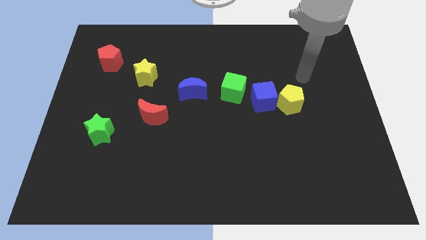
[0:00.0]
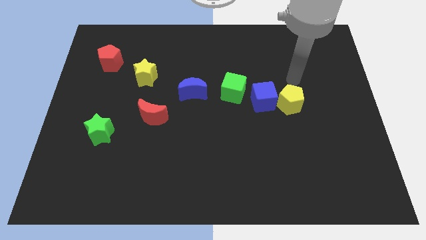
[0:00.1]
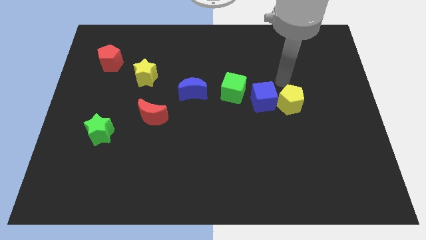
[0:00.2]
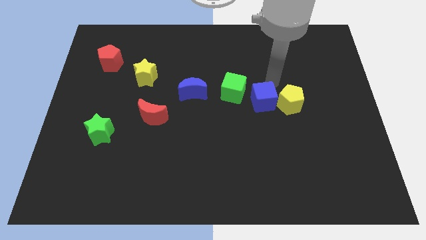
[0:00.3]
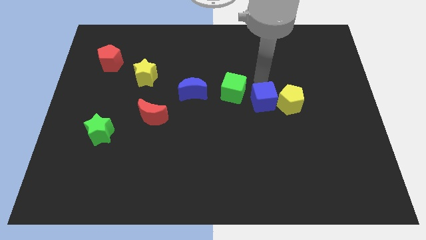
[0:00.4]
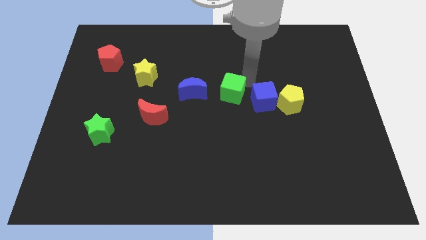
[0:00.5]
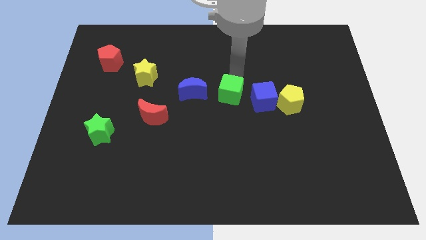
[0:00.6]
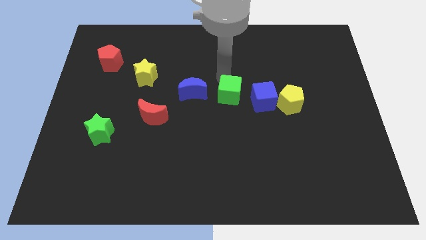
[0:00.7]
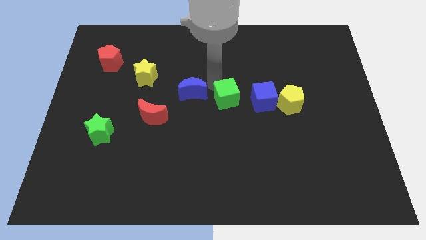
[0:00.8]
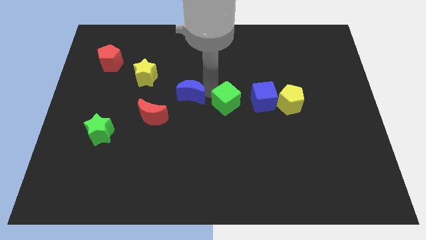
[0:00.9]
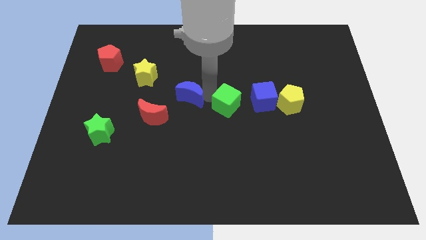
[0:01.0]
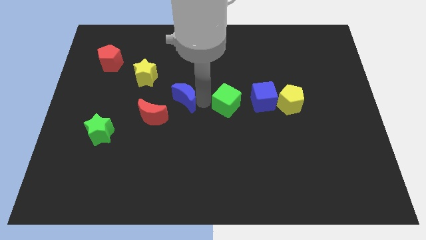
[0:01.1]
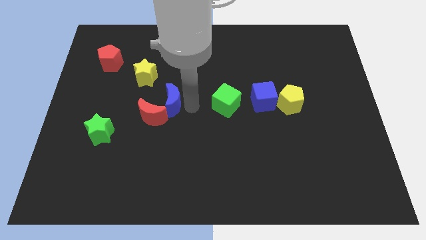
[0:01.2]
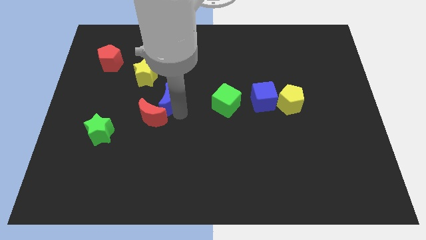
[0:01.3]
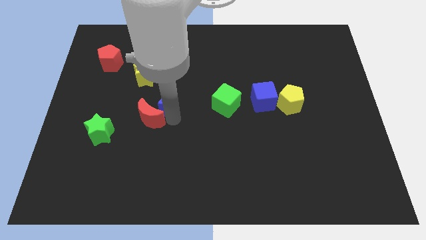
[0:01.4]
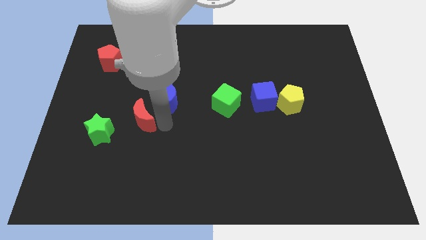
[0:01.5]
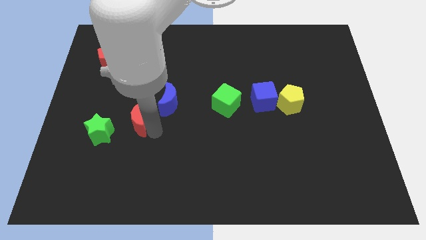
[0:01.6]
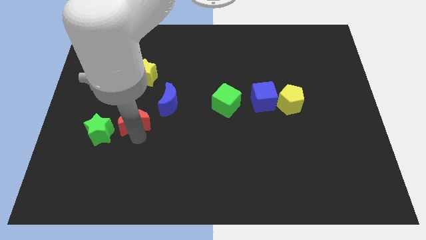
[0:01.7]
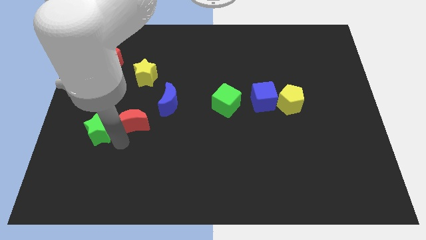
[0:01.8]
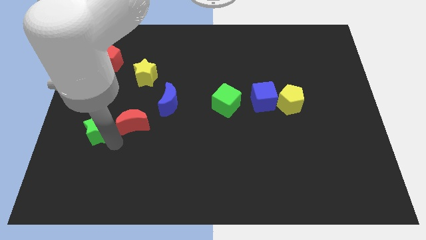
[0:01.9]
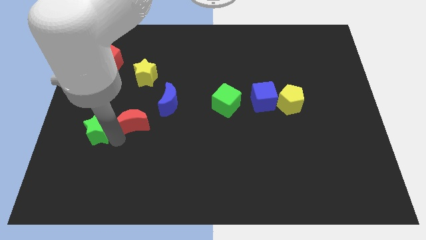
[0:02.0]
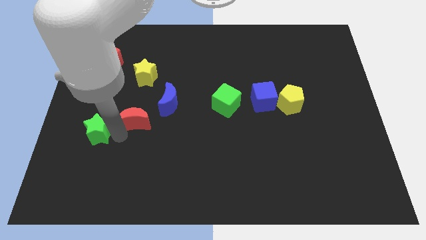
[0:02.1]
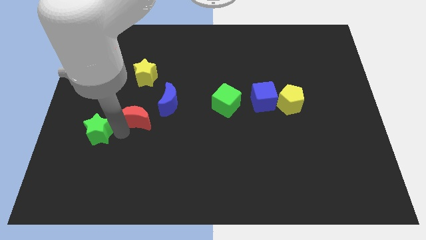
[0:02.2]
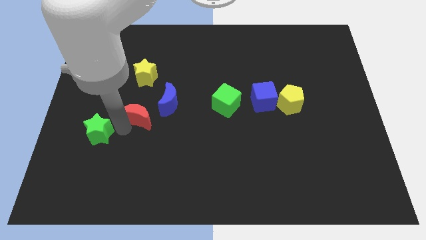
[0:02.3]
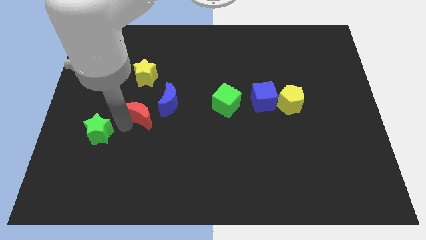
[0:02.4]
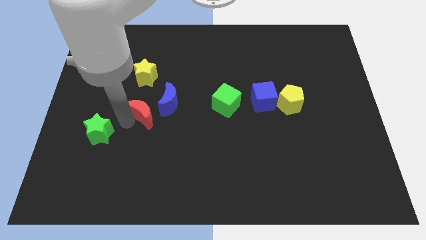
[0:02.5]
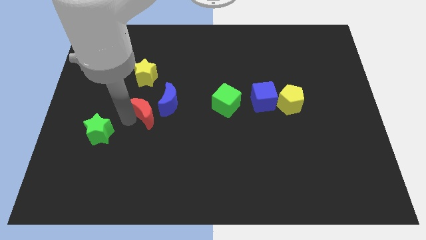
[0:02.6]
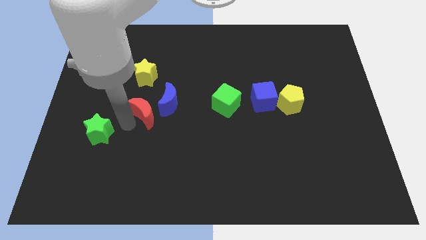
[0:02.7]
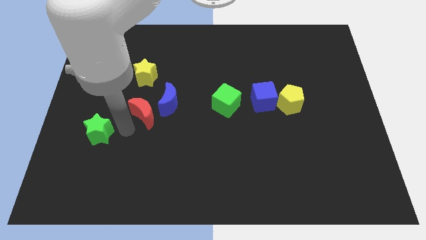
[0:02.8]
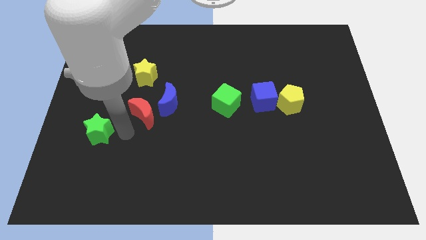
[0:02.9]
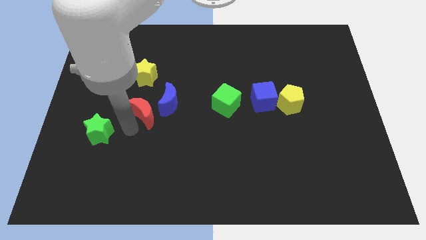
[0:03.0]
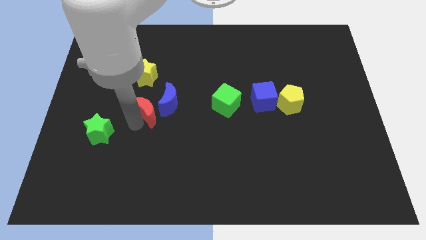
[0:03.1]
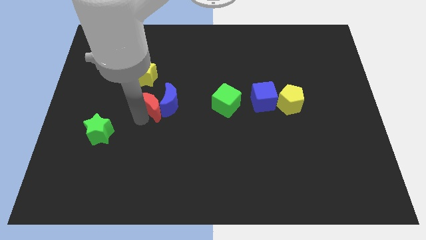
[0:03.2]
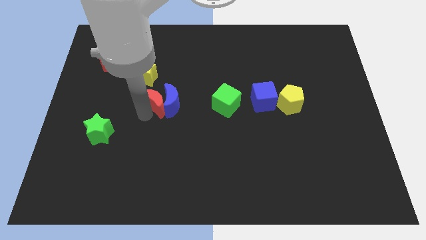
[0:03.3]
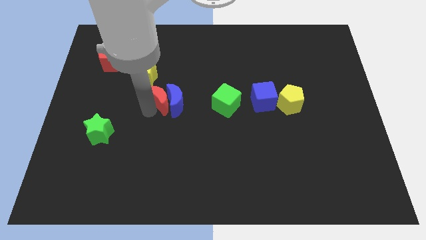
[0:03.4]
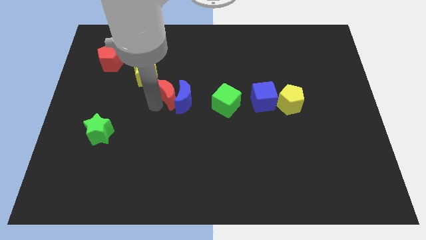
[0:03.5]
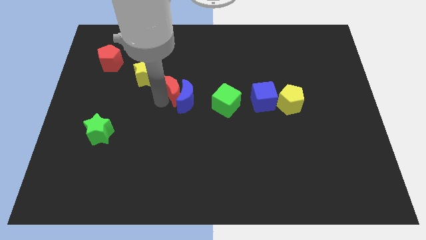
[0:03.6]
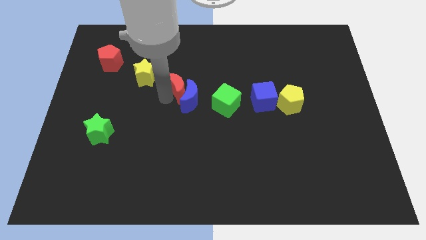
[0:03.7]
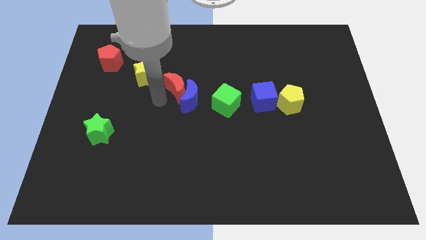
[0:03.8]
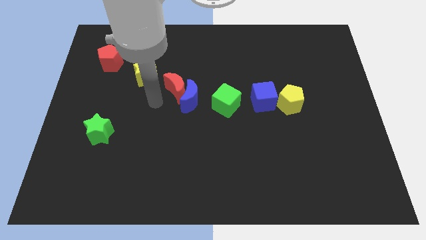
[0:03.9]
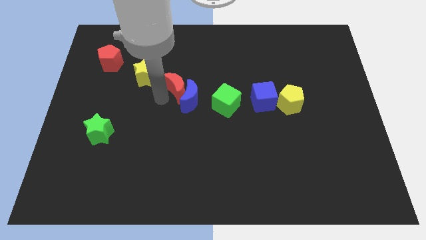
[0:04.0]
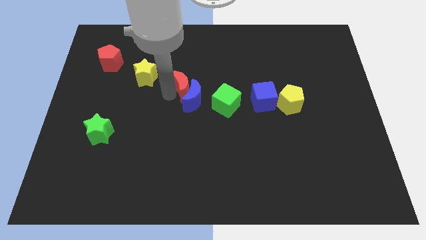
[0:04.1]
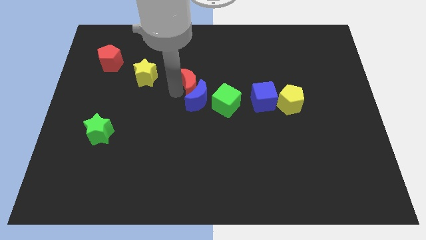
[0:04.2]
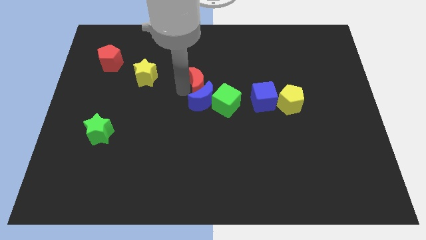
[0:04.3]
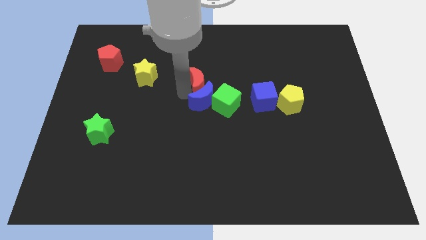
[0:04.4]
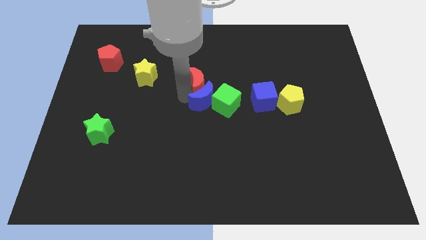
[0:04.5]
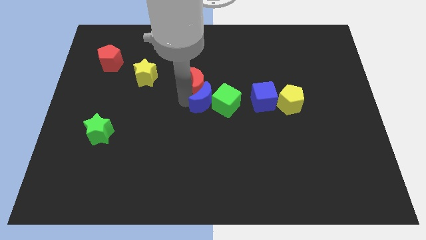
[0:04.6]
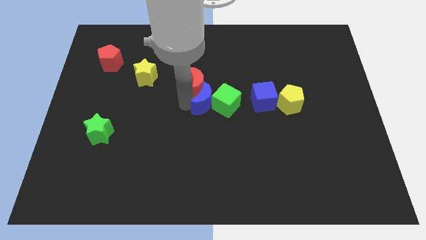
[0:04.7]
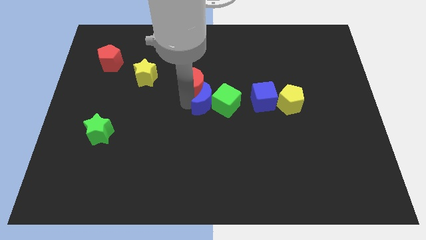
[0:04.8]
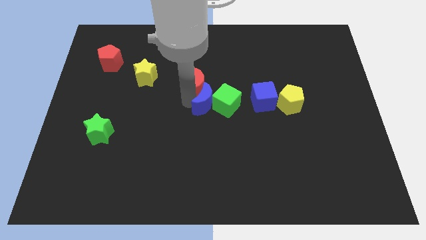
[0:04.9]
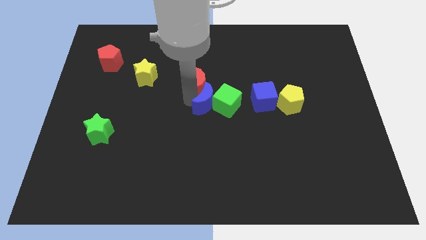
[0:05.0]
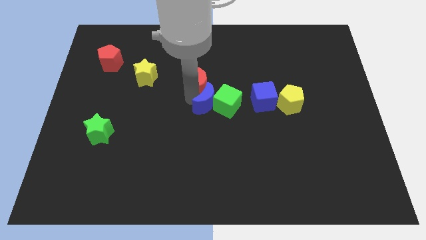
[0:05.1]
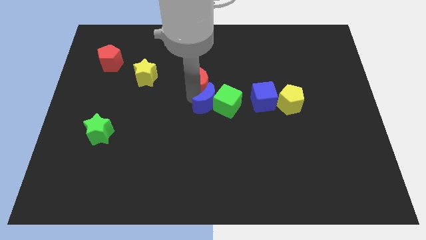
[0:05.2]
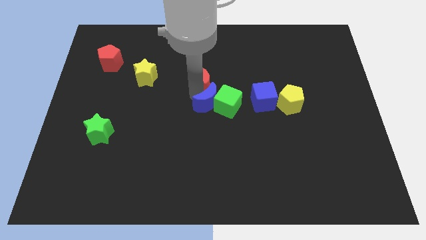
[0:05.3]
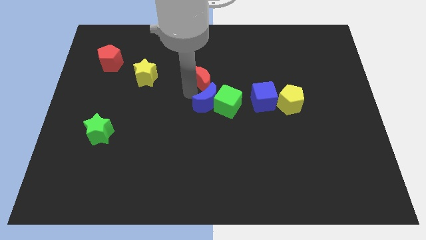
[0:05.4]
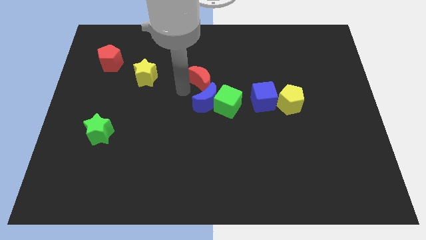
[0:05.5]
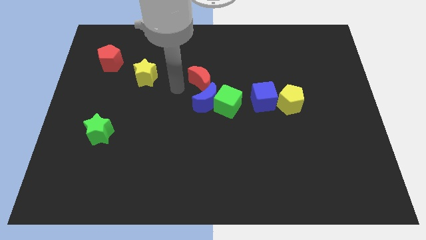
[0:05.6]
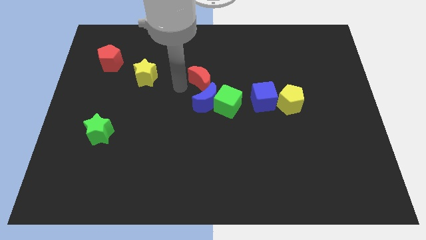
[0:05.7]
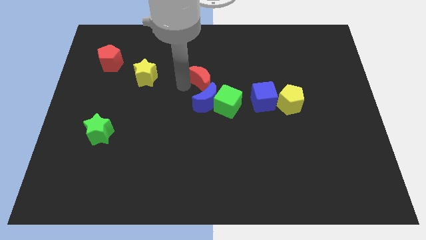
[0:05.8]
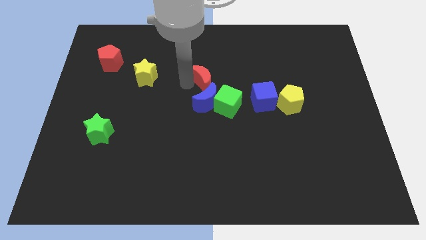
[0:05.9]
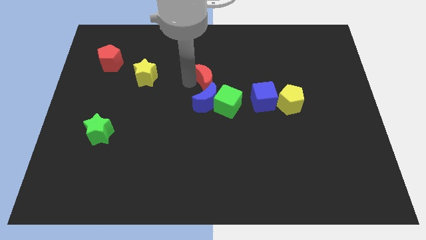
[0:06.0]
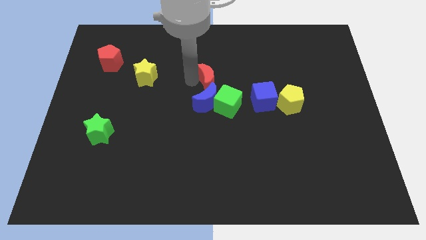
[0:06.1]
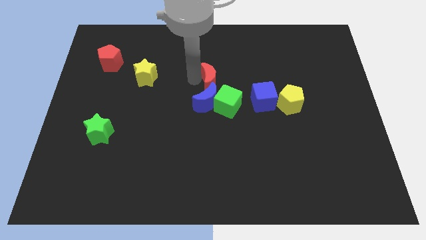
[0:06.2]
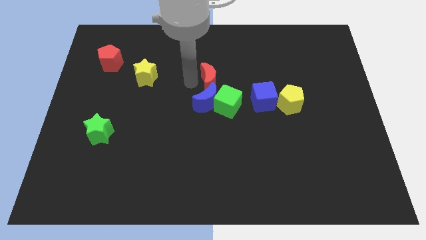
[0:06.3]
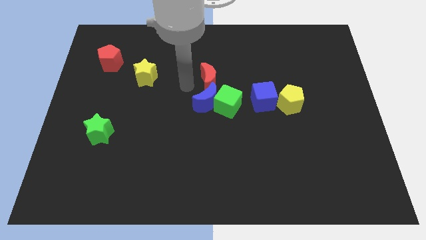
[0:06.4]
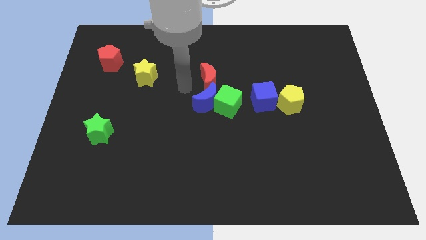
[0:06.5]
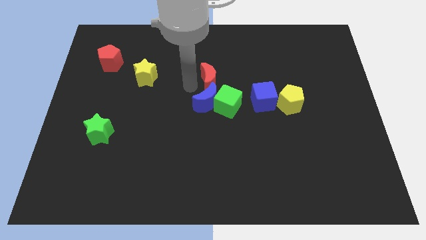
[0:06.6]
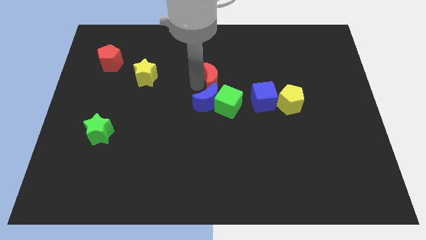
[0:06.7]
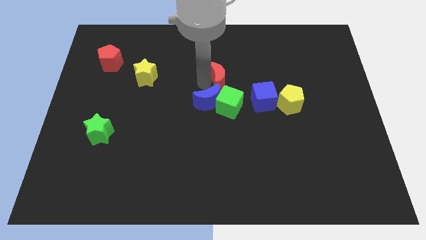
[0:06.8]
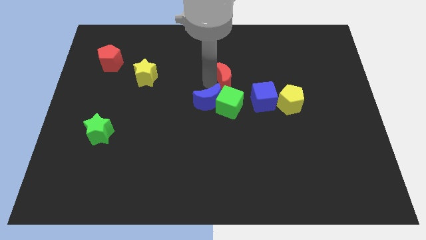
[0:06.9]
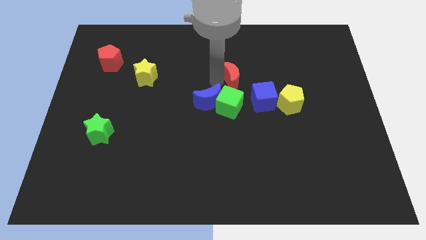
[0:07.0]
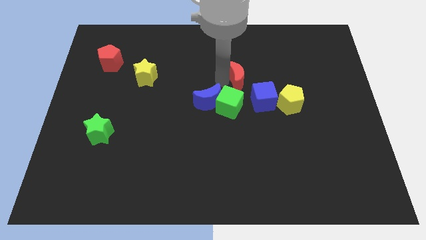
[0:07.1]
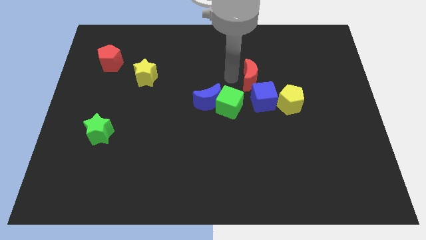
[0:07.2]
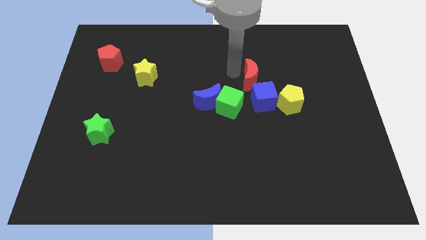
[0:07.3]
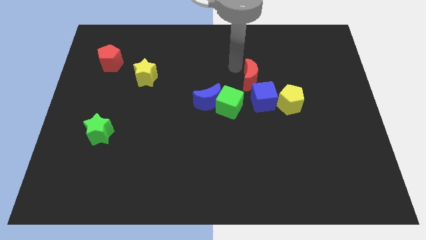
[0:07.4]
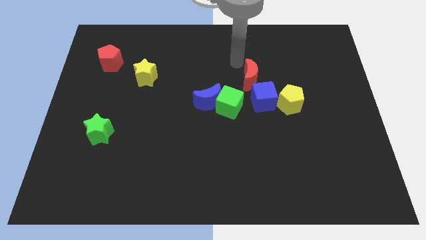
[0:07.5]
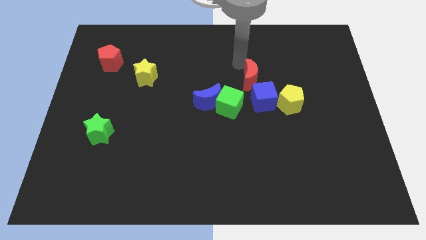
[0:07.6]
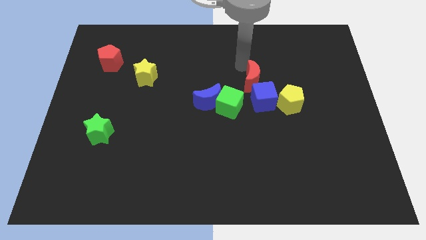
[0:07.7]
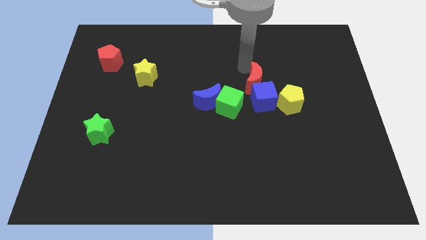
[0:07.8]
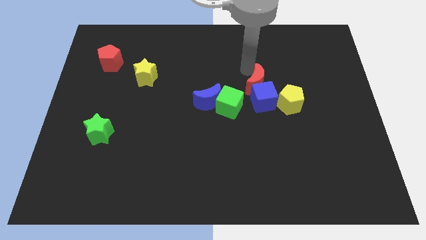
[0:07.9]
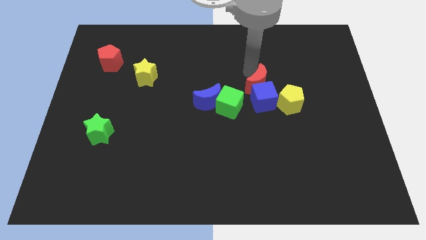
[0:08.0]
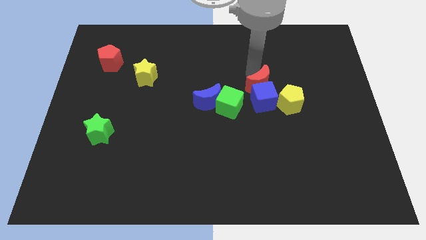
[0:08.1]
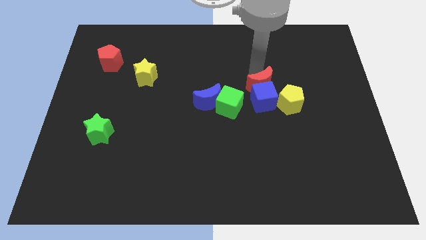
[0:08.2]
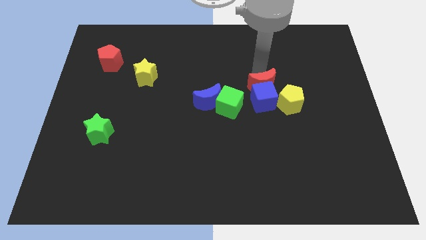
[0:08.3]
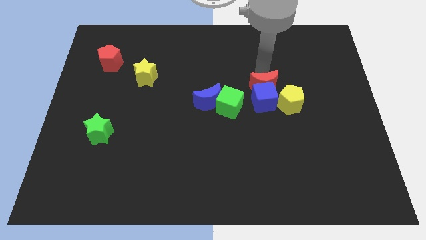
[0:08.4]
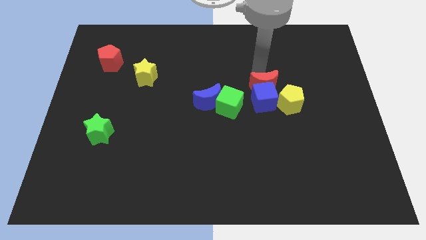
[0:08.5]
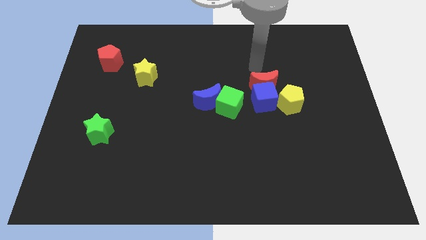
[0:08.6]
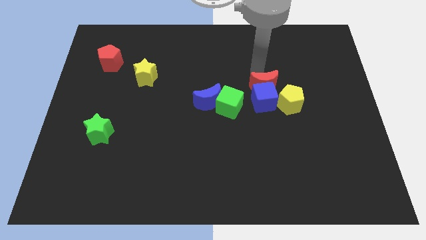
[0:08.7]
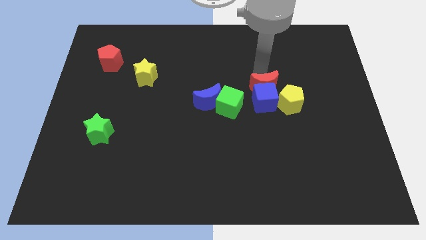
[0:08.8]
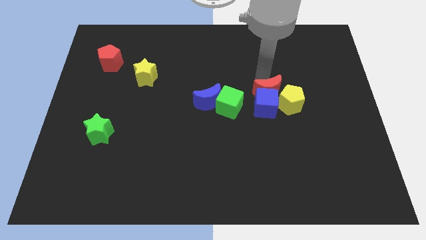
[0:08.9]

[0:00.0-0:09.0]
move the red moon to the right of the green cube
